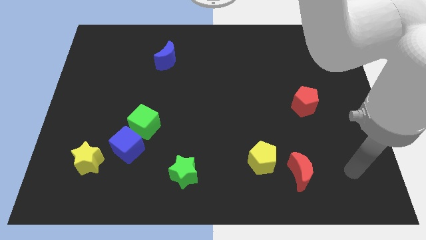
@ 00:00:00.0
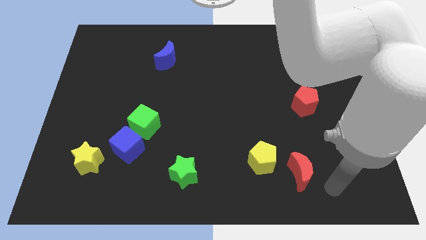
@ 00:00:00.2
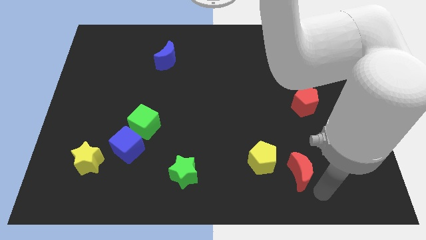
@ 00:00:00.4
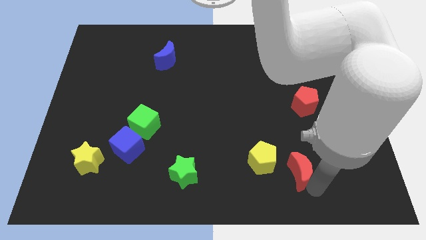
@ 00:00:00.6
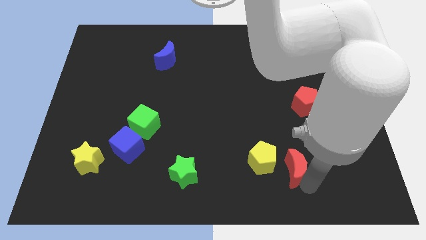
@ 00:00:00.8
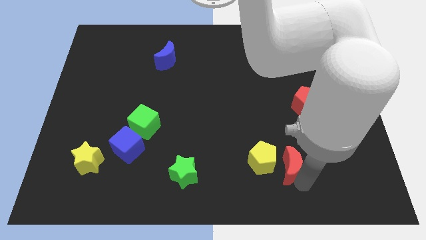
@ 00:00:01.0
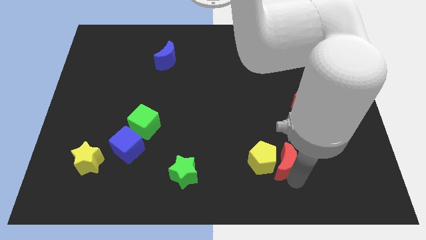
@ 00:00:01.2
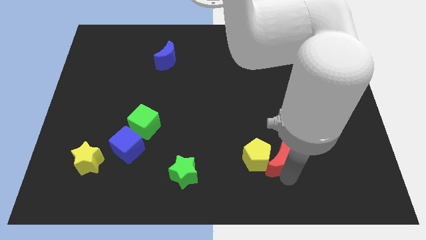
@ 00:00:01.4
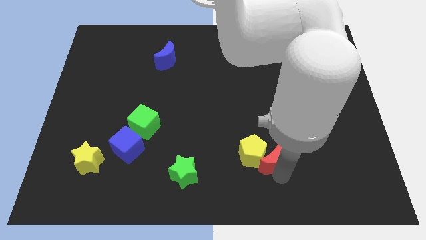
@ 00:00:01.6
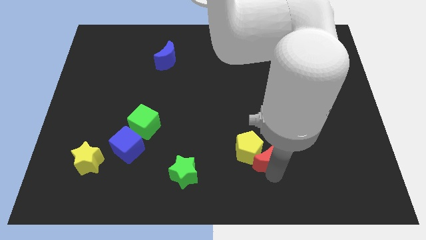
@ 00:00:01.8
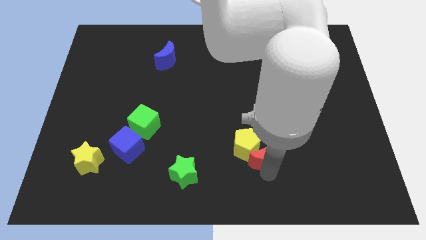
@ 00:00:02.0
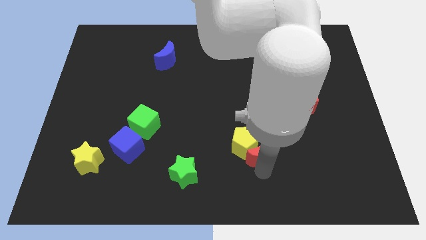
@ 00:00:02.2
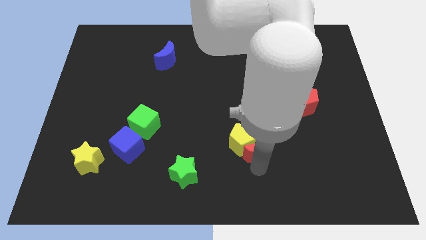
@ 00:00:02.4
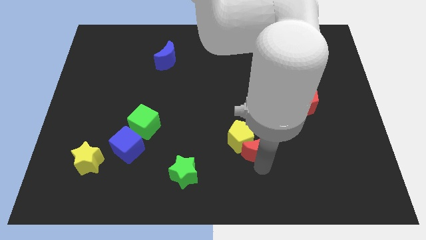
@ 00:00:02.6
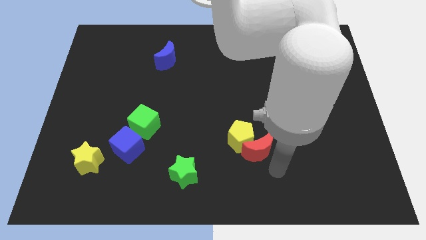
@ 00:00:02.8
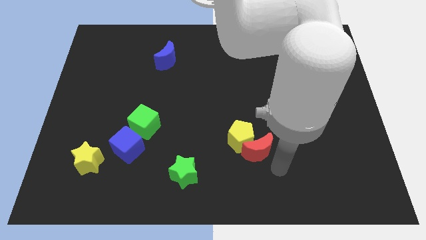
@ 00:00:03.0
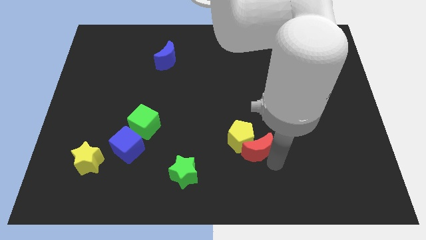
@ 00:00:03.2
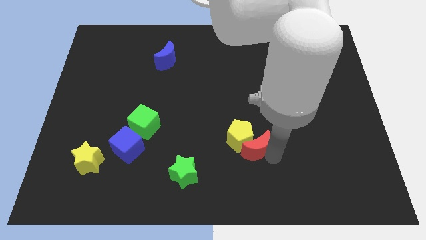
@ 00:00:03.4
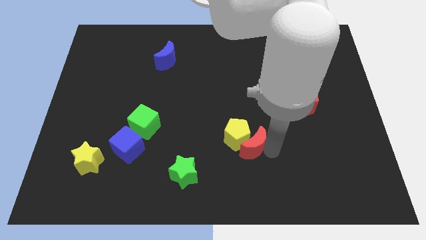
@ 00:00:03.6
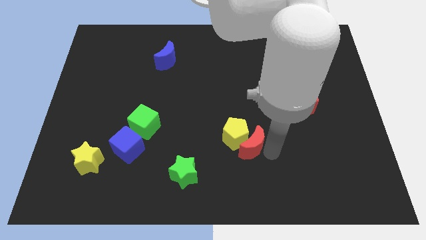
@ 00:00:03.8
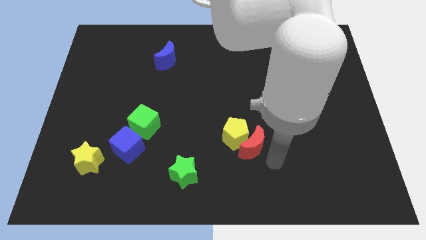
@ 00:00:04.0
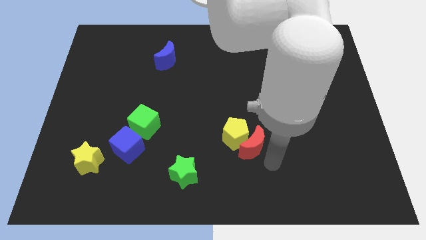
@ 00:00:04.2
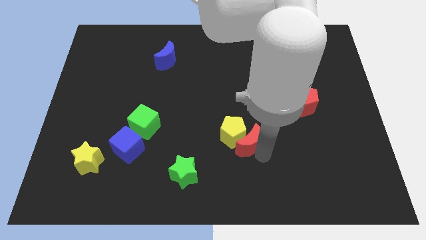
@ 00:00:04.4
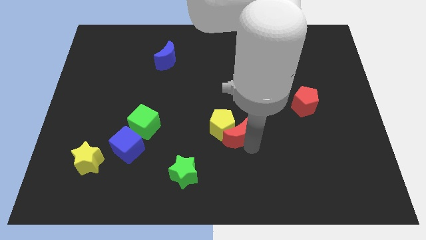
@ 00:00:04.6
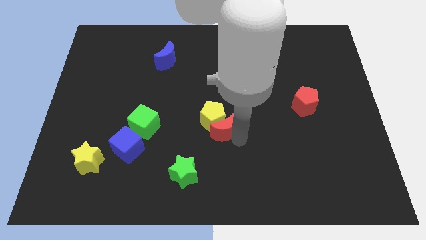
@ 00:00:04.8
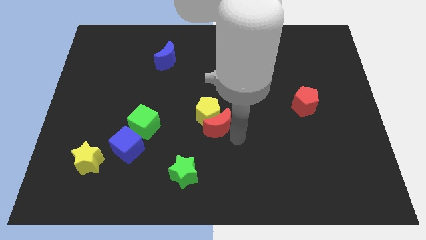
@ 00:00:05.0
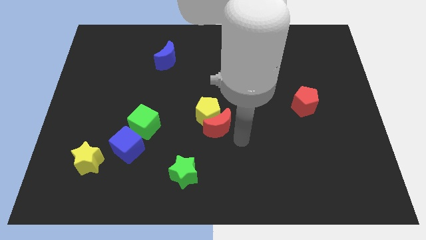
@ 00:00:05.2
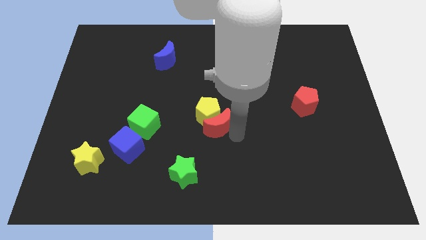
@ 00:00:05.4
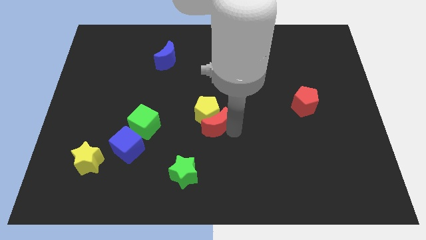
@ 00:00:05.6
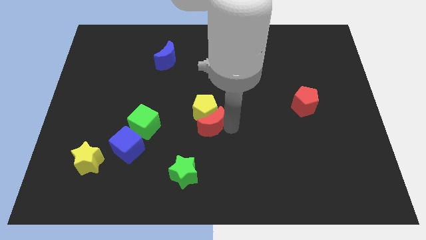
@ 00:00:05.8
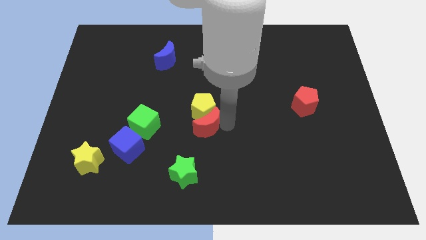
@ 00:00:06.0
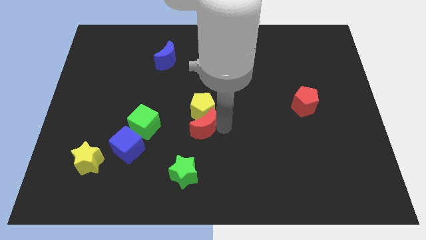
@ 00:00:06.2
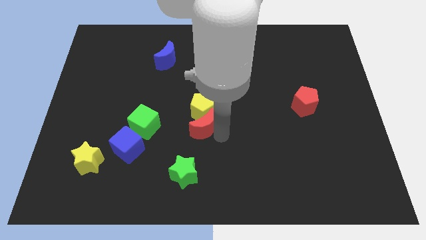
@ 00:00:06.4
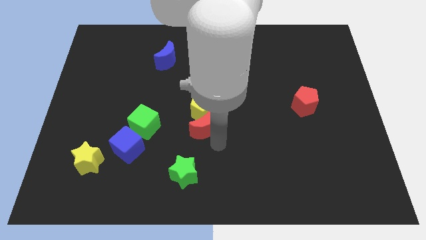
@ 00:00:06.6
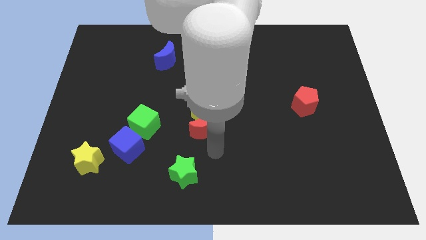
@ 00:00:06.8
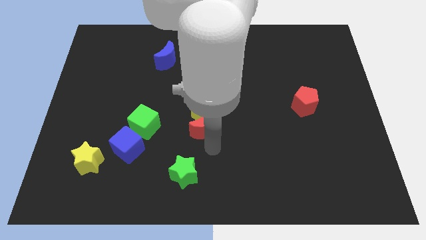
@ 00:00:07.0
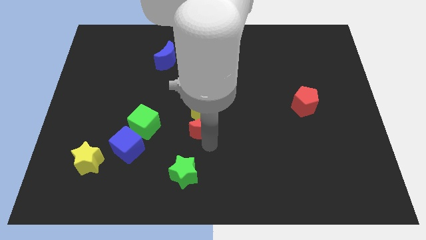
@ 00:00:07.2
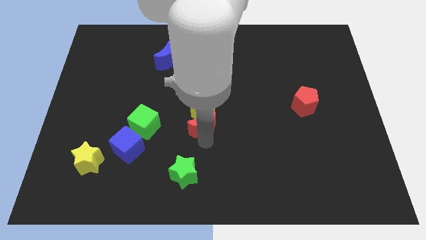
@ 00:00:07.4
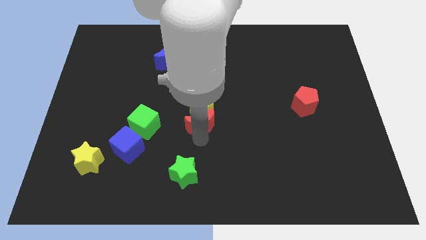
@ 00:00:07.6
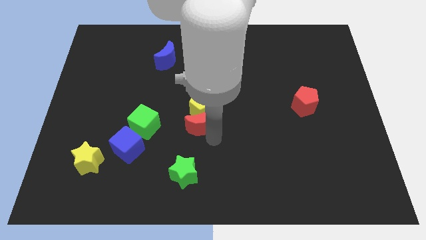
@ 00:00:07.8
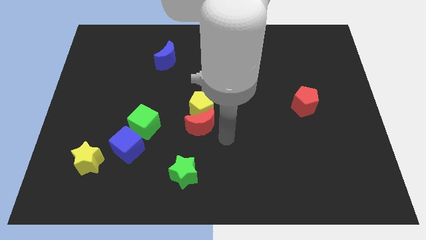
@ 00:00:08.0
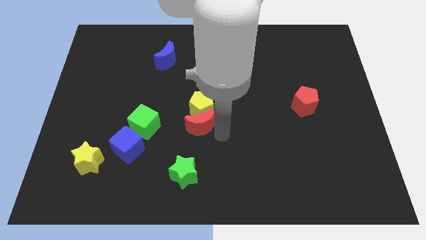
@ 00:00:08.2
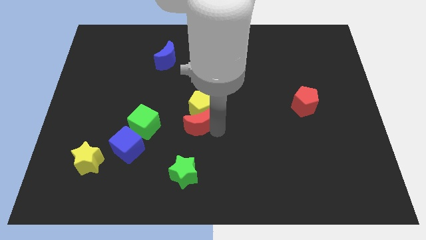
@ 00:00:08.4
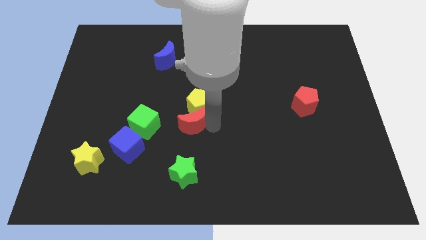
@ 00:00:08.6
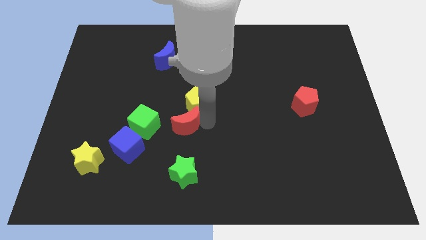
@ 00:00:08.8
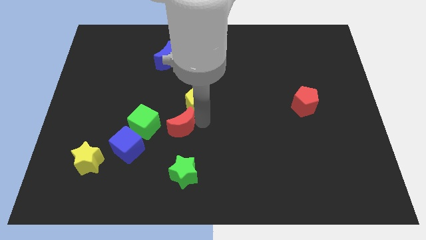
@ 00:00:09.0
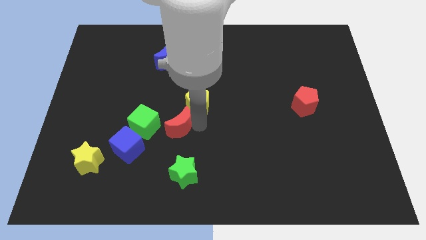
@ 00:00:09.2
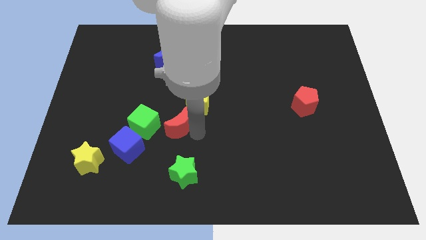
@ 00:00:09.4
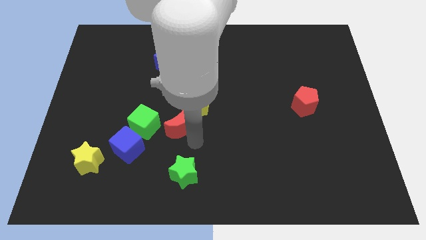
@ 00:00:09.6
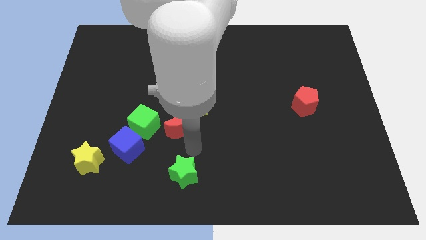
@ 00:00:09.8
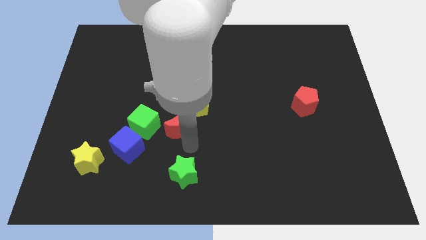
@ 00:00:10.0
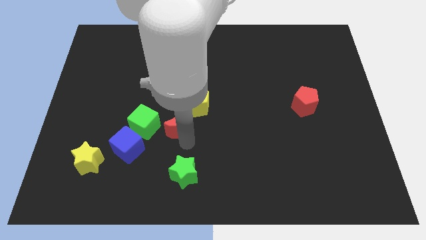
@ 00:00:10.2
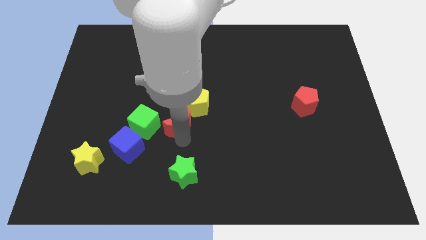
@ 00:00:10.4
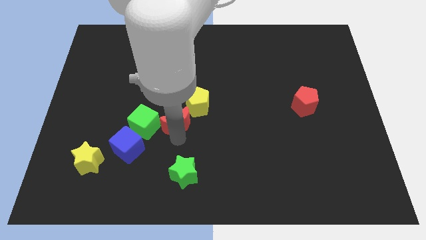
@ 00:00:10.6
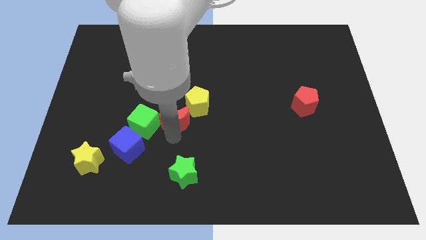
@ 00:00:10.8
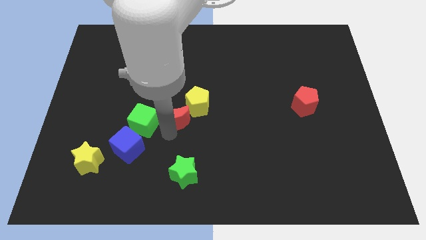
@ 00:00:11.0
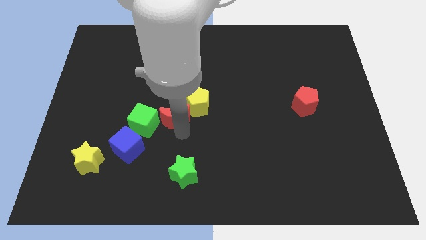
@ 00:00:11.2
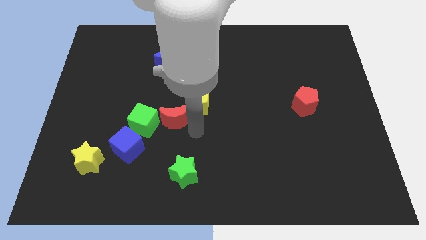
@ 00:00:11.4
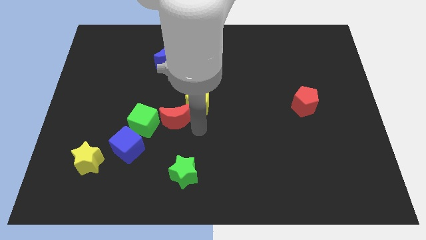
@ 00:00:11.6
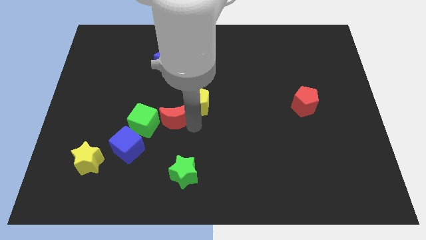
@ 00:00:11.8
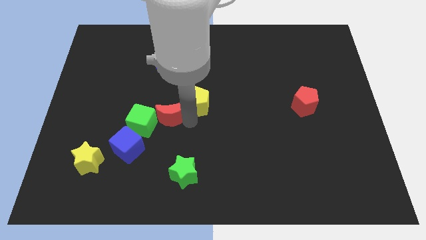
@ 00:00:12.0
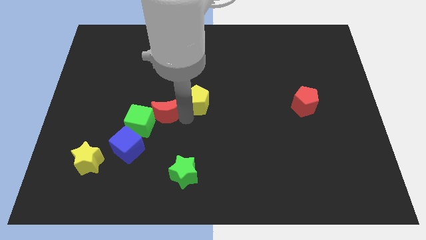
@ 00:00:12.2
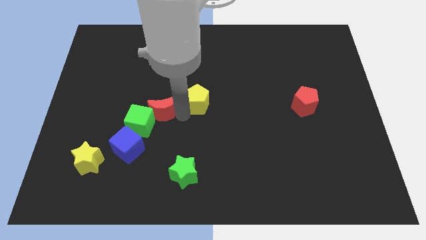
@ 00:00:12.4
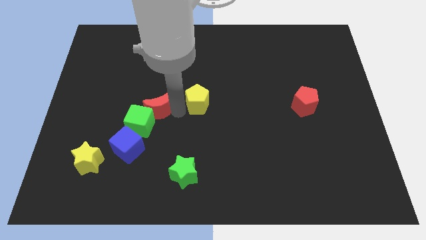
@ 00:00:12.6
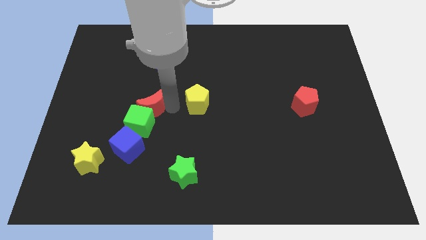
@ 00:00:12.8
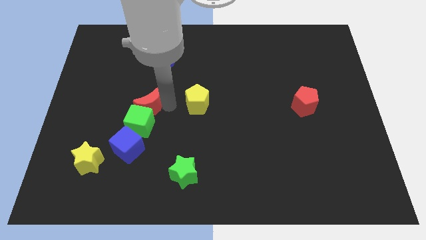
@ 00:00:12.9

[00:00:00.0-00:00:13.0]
put the red moon to the top left of the green cube
